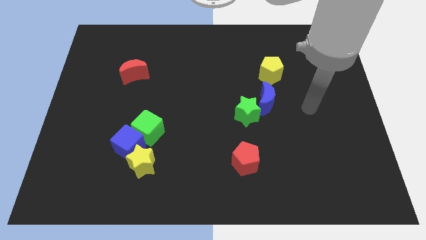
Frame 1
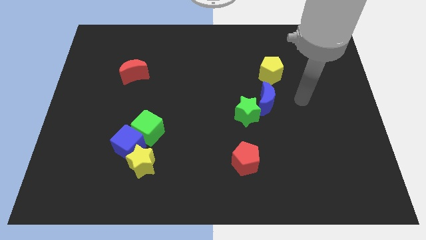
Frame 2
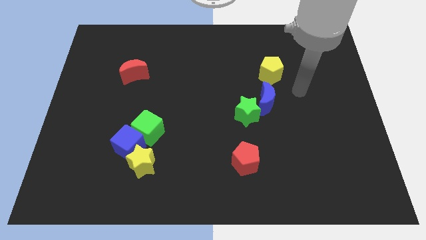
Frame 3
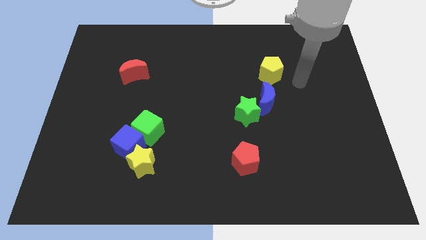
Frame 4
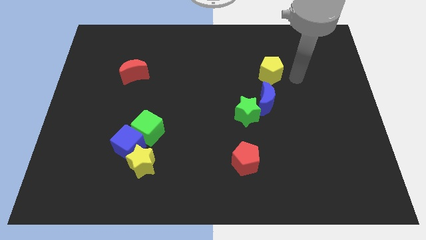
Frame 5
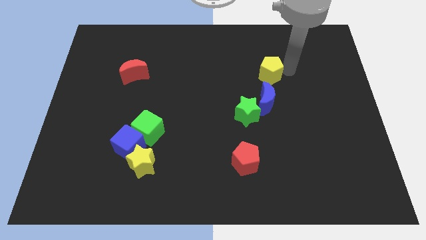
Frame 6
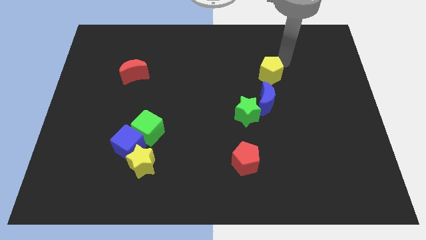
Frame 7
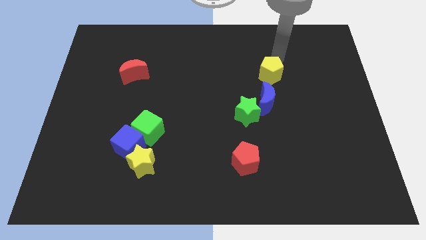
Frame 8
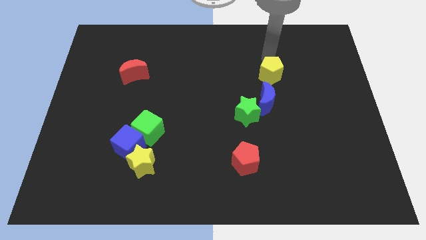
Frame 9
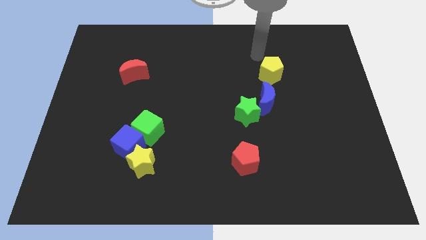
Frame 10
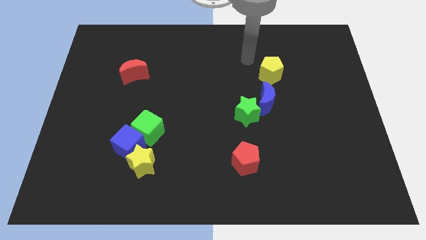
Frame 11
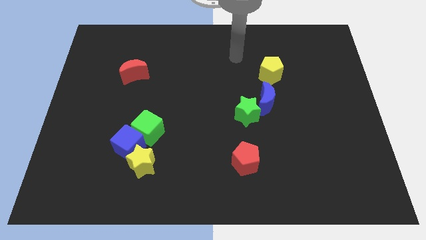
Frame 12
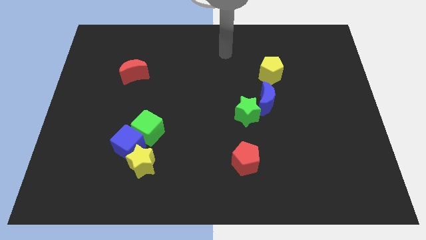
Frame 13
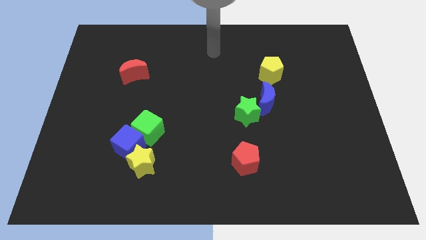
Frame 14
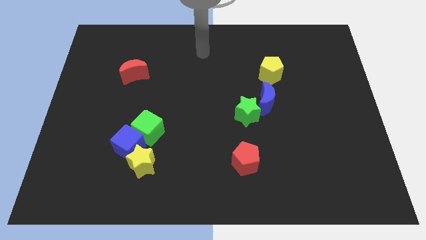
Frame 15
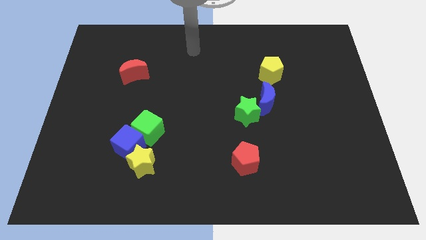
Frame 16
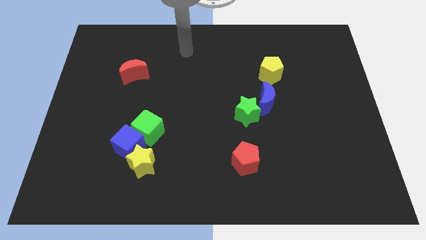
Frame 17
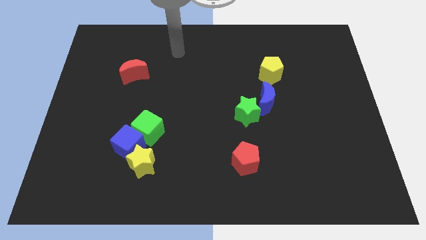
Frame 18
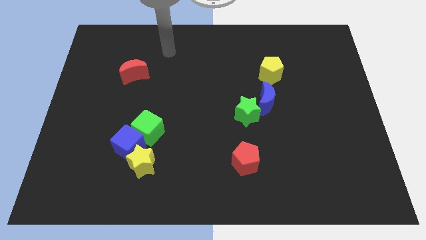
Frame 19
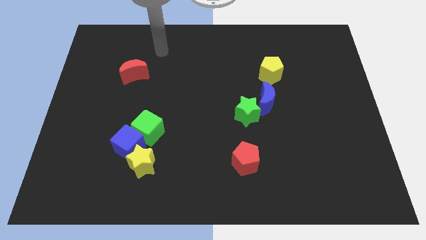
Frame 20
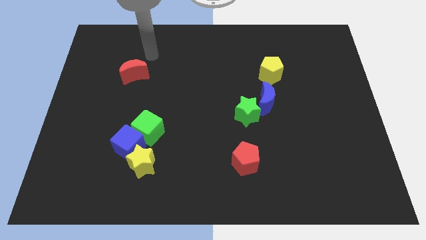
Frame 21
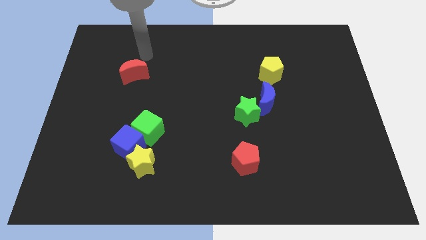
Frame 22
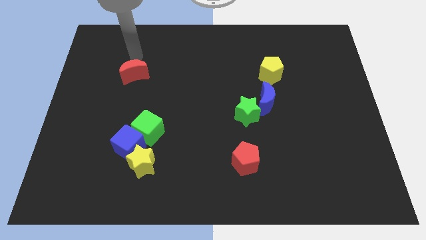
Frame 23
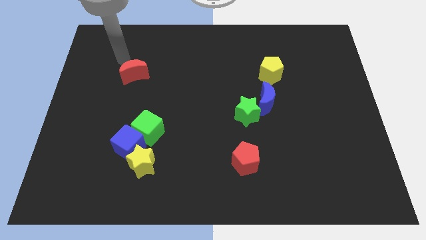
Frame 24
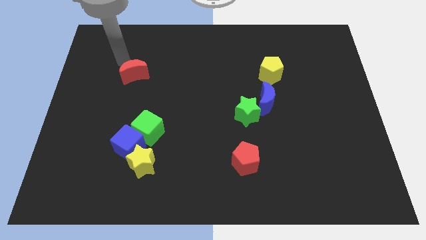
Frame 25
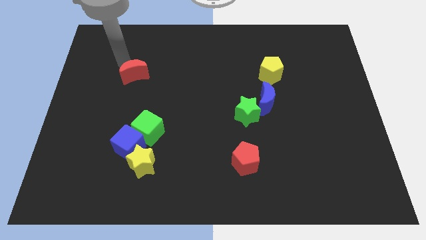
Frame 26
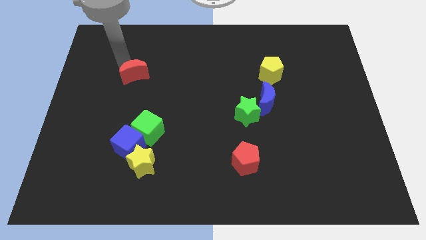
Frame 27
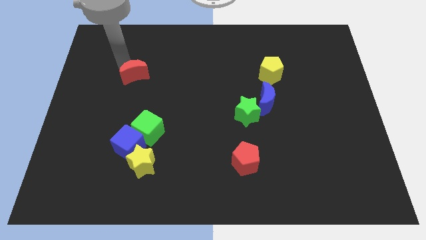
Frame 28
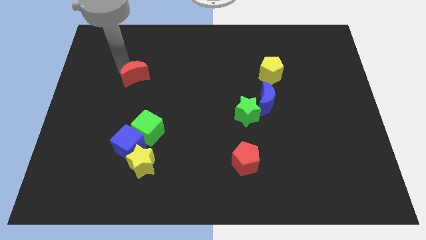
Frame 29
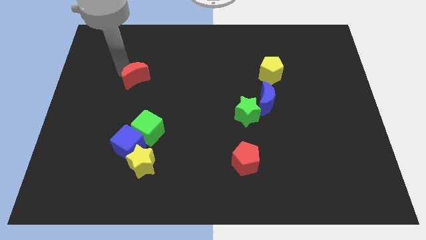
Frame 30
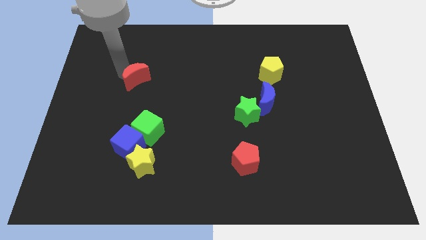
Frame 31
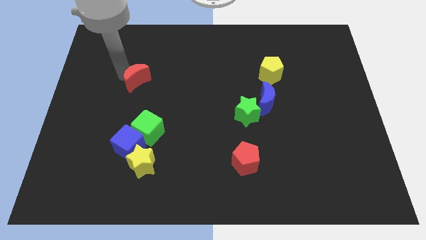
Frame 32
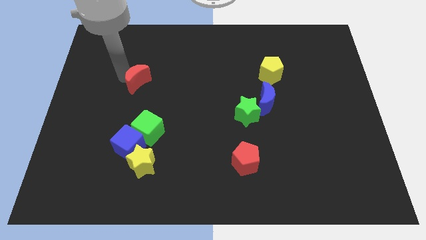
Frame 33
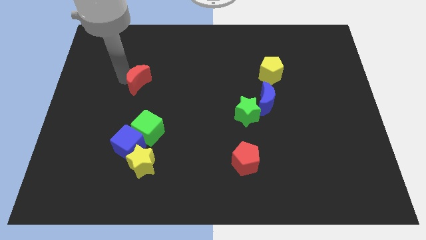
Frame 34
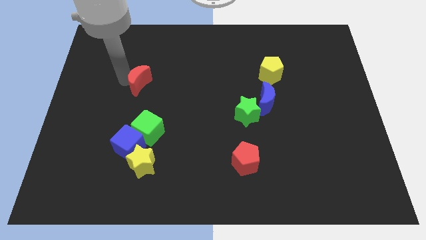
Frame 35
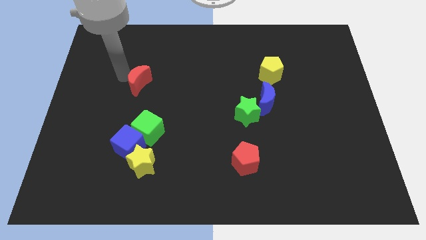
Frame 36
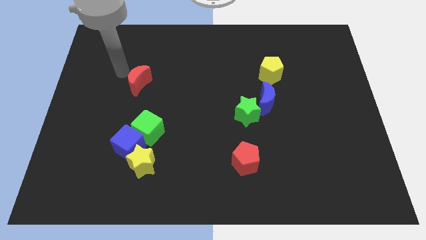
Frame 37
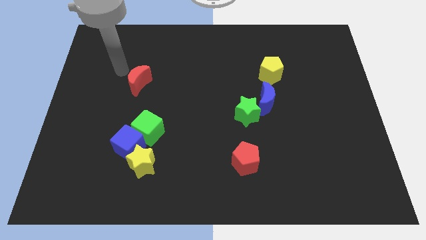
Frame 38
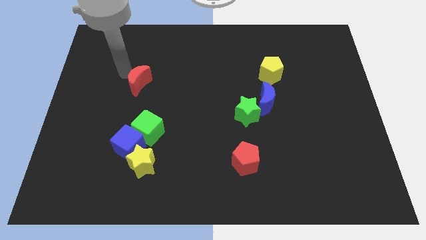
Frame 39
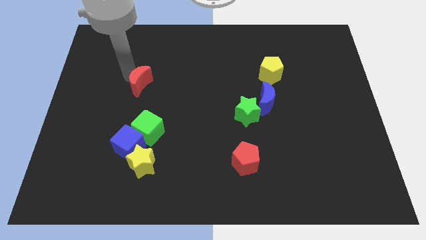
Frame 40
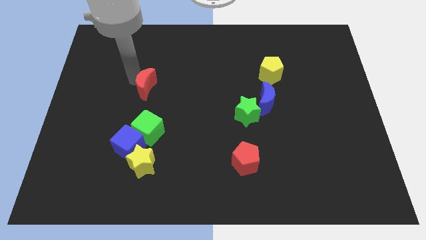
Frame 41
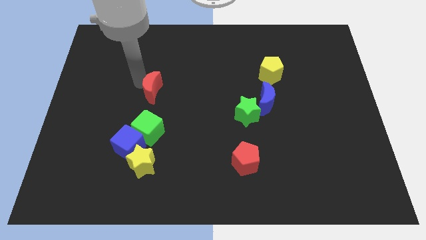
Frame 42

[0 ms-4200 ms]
move the red moon diagonally down and right somewhat

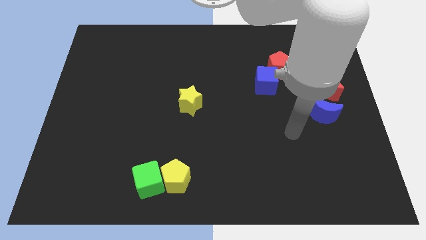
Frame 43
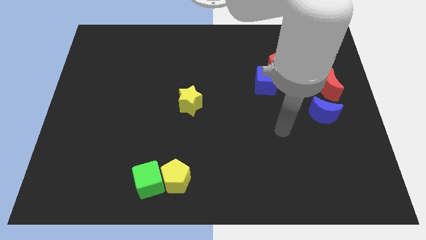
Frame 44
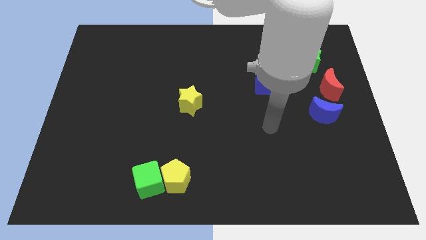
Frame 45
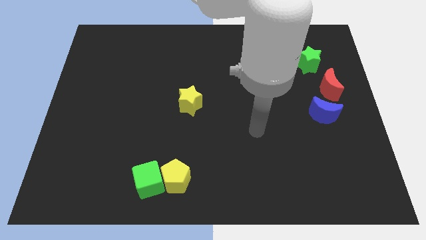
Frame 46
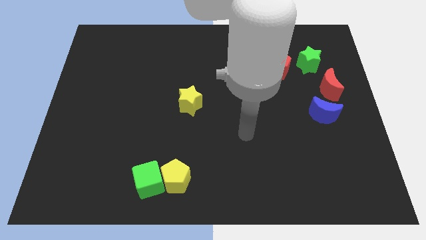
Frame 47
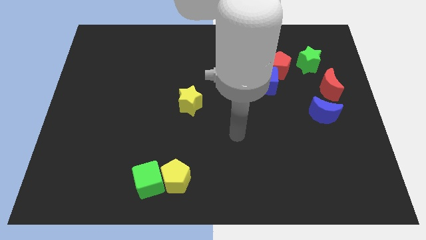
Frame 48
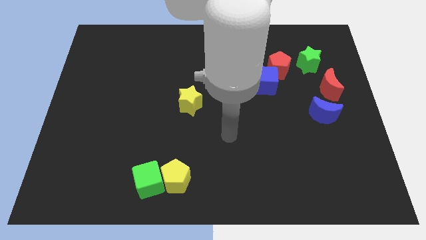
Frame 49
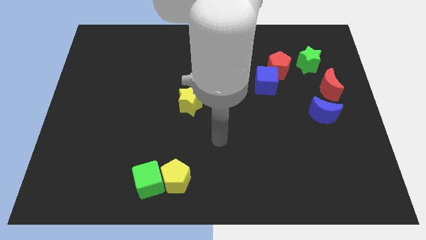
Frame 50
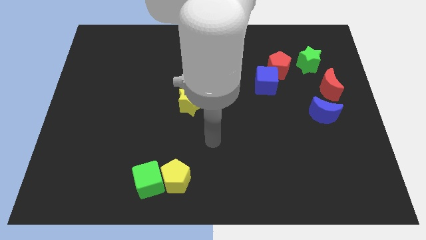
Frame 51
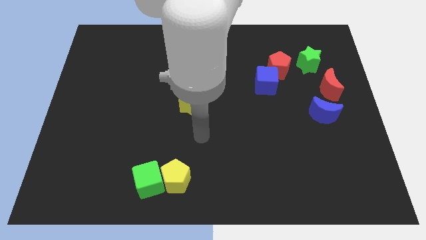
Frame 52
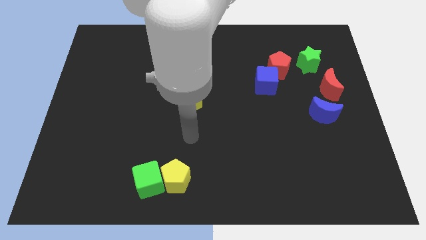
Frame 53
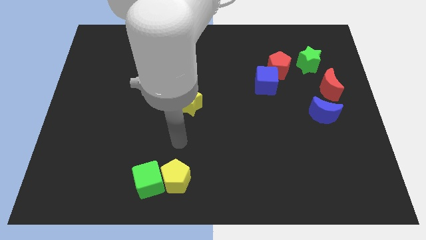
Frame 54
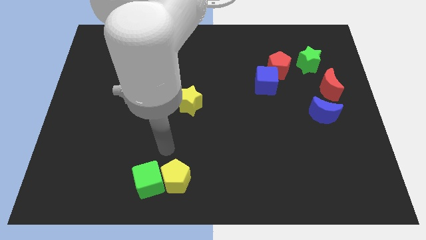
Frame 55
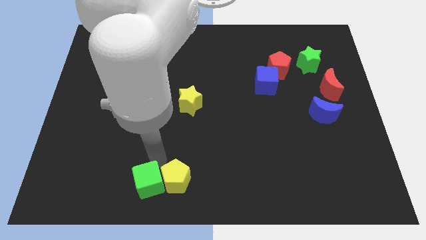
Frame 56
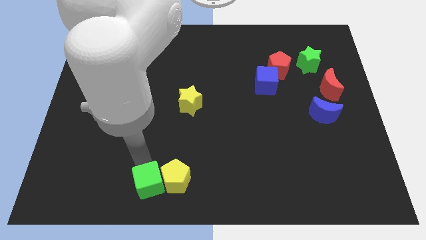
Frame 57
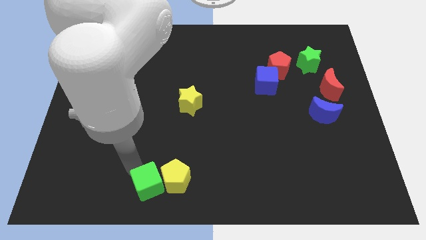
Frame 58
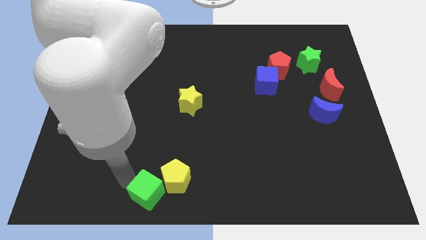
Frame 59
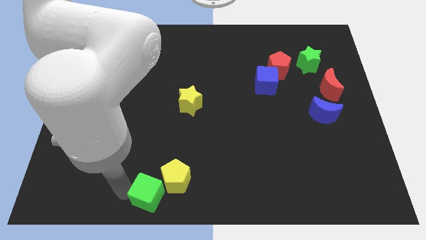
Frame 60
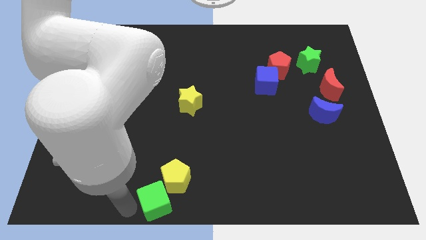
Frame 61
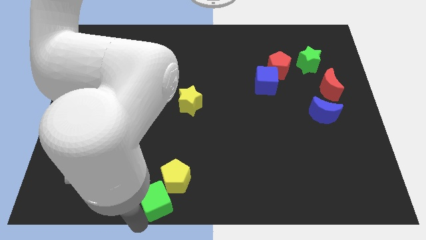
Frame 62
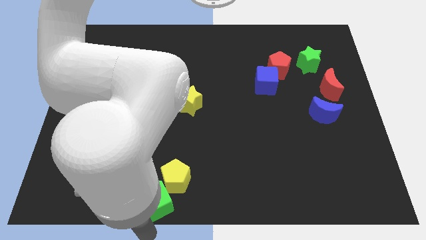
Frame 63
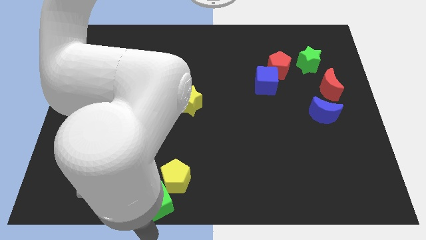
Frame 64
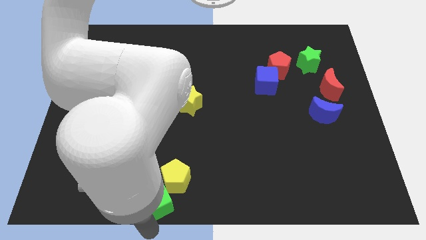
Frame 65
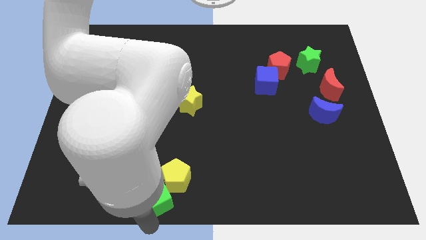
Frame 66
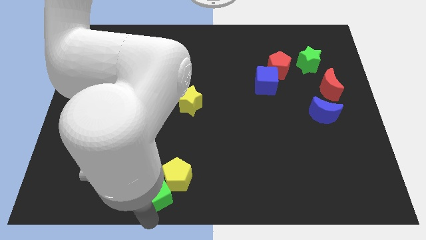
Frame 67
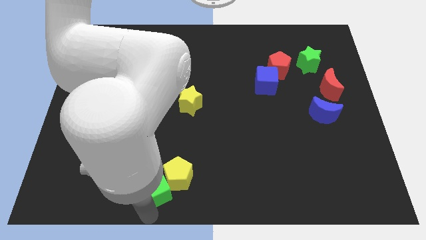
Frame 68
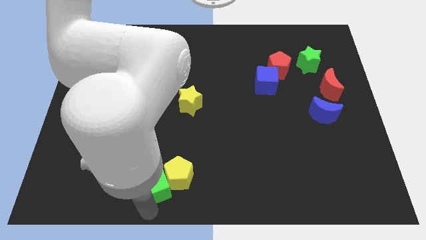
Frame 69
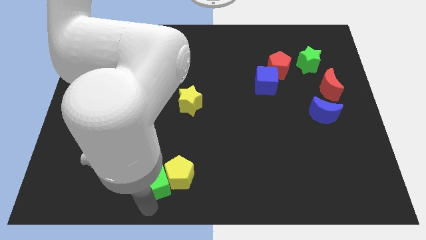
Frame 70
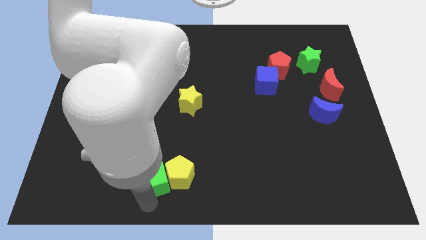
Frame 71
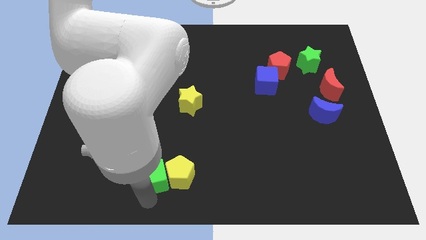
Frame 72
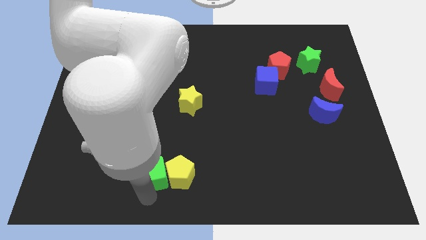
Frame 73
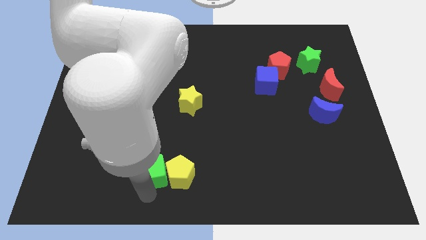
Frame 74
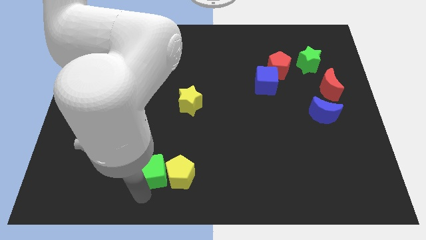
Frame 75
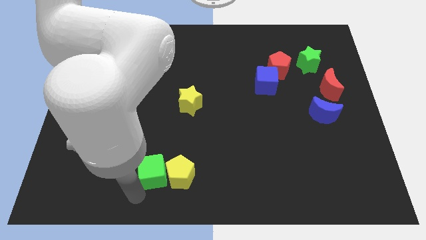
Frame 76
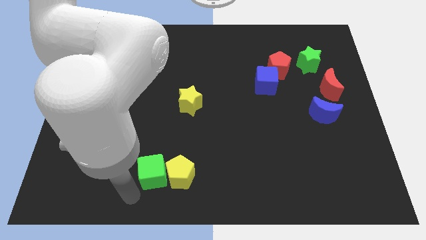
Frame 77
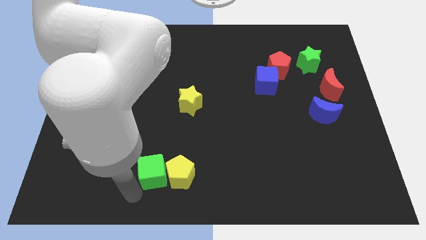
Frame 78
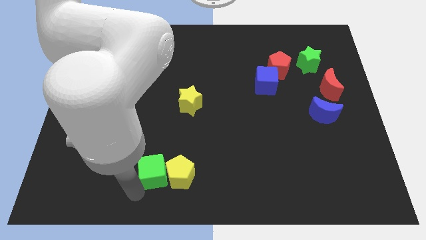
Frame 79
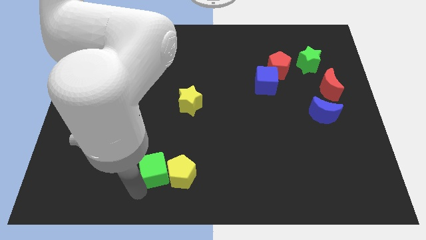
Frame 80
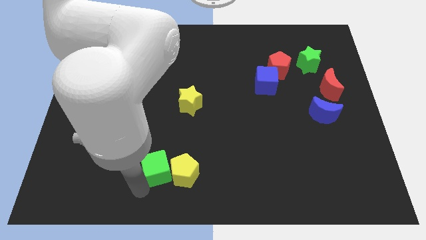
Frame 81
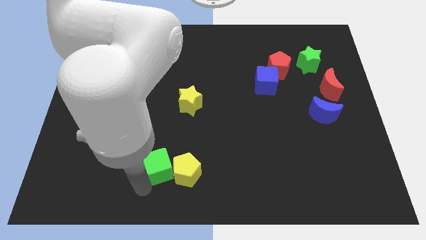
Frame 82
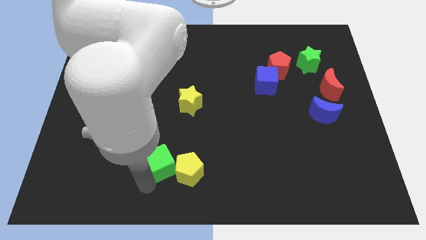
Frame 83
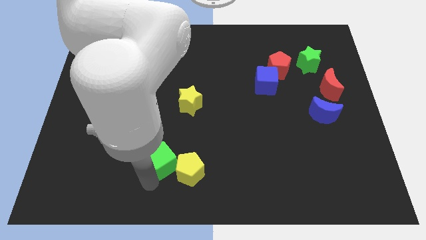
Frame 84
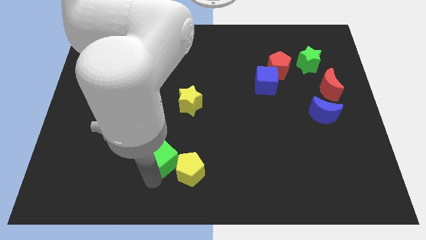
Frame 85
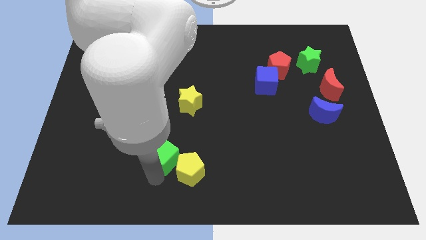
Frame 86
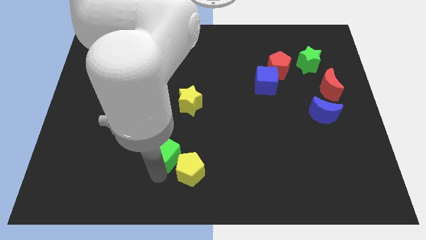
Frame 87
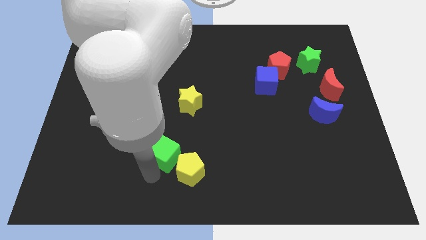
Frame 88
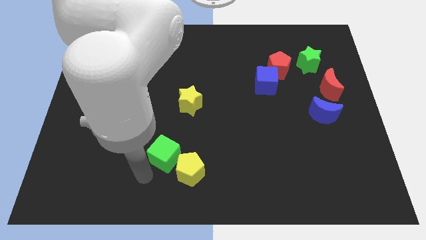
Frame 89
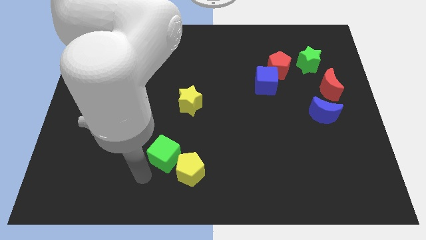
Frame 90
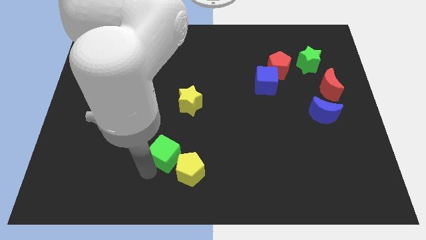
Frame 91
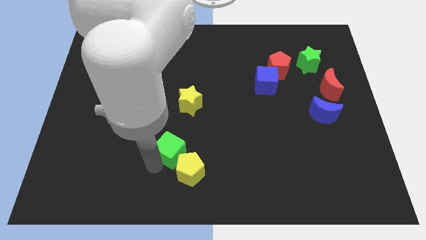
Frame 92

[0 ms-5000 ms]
move the green cube a bit up and to the right
